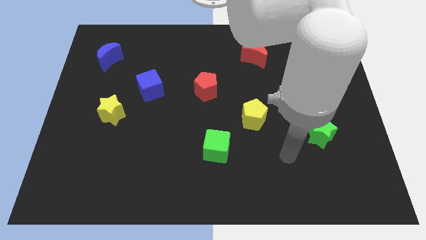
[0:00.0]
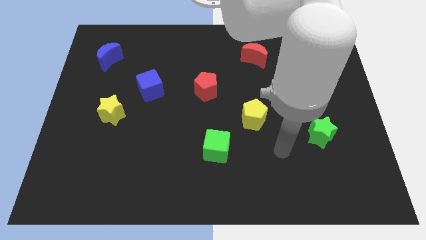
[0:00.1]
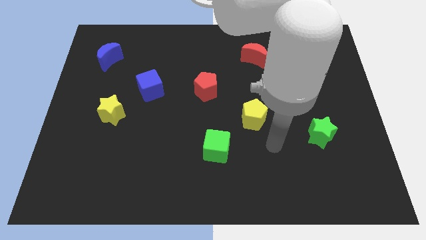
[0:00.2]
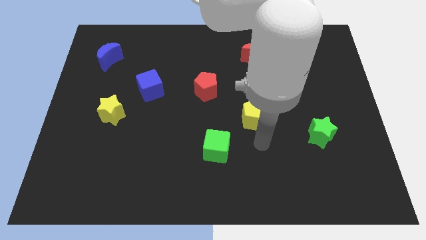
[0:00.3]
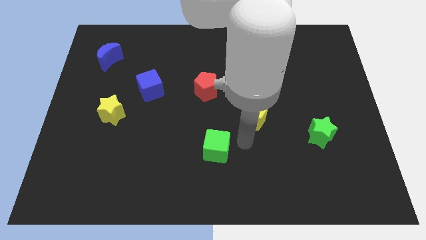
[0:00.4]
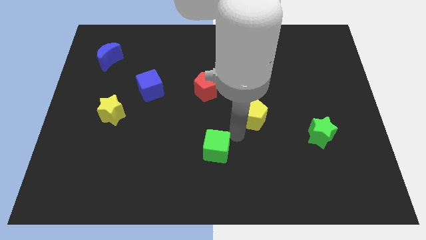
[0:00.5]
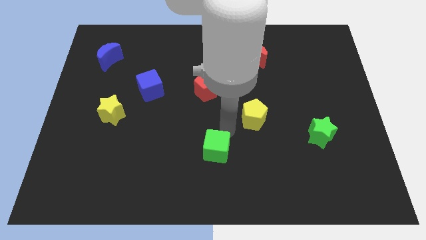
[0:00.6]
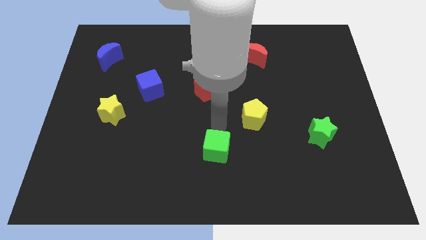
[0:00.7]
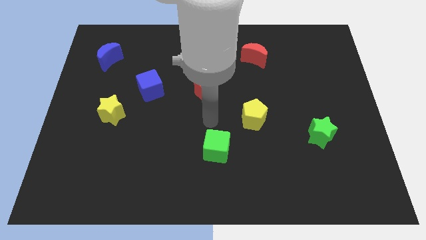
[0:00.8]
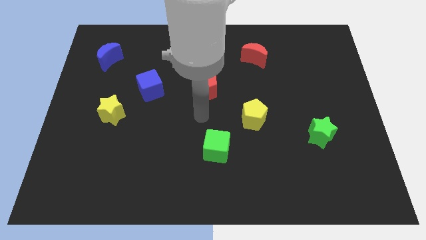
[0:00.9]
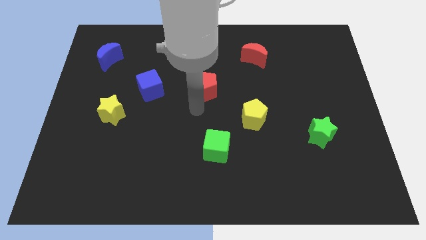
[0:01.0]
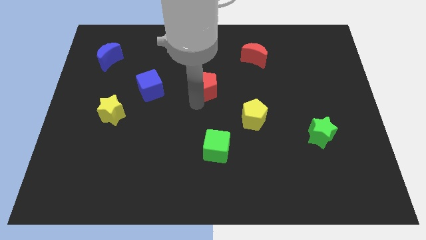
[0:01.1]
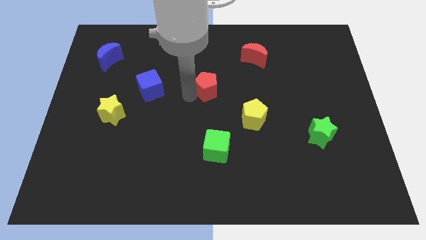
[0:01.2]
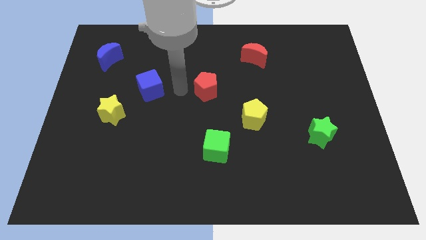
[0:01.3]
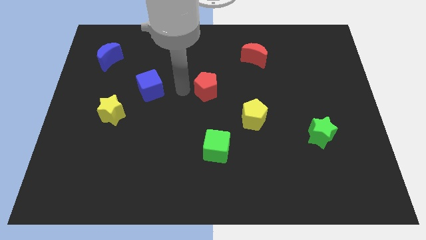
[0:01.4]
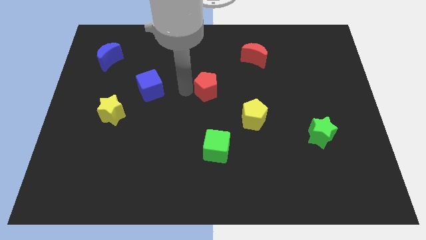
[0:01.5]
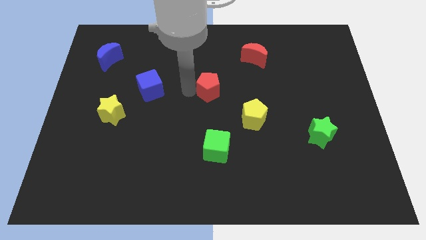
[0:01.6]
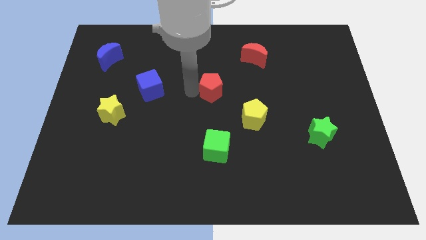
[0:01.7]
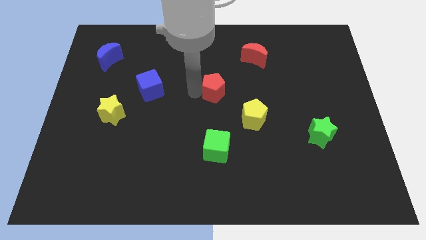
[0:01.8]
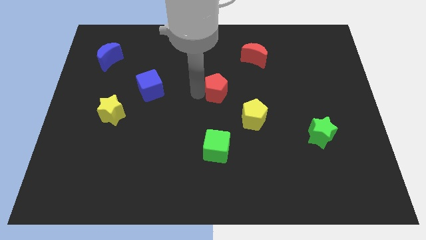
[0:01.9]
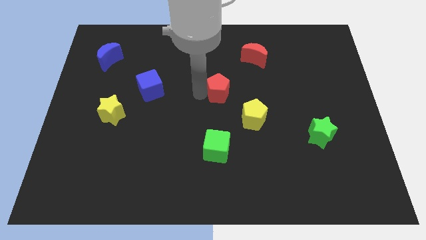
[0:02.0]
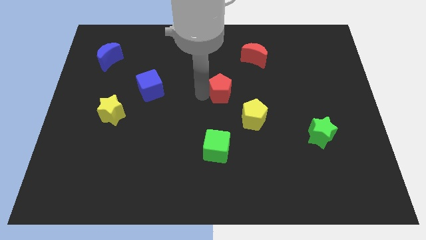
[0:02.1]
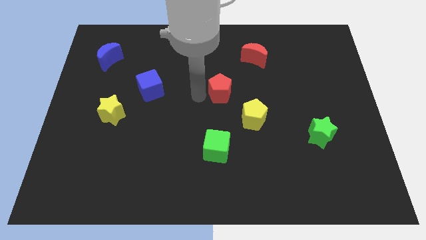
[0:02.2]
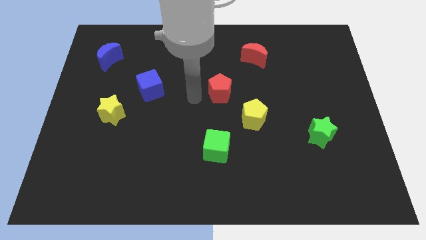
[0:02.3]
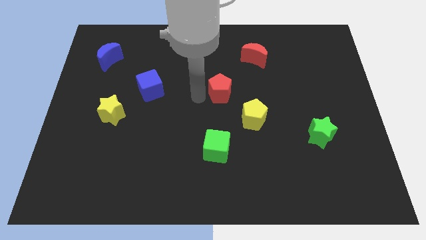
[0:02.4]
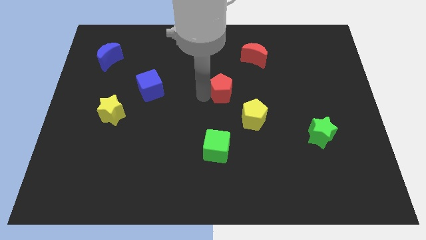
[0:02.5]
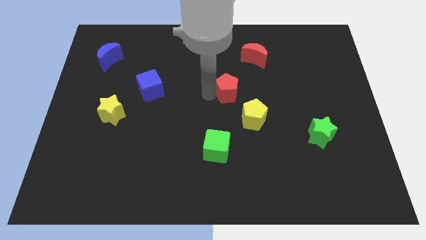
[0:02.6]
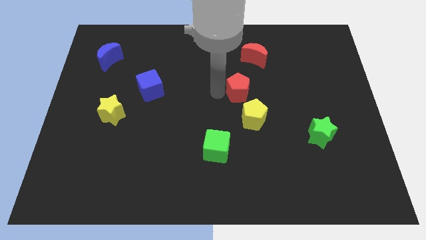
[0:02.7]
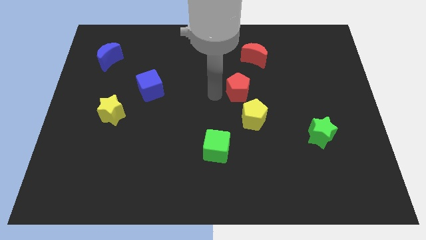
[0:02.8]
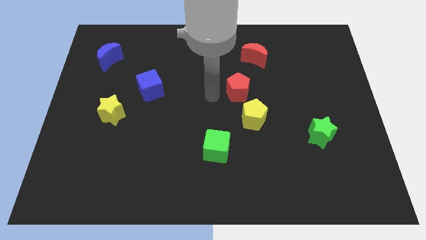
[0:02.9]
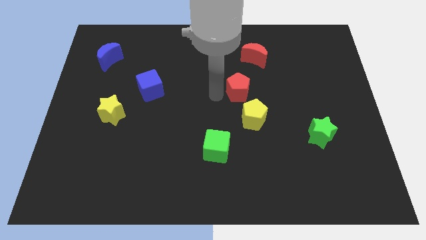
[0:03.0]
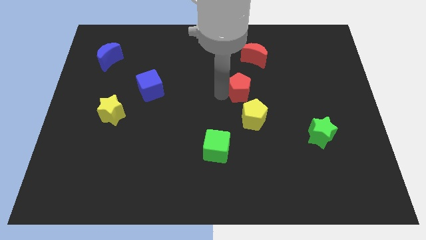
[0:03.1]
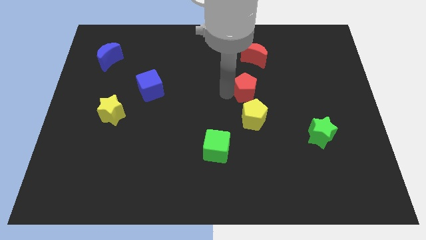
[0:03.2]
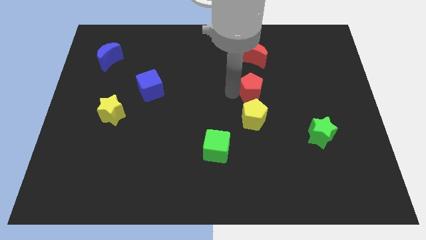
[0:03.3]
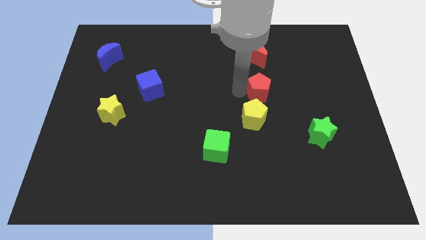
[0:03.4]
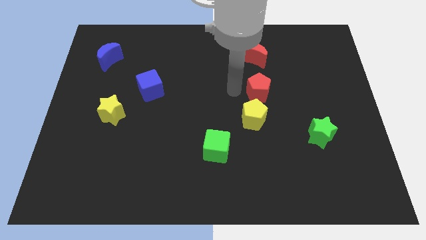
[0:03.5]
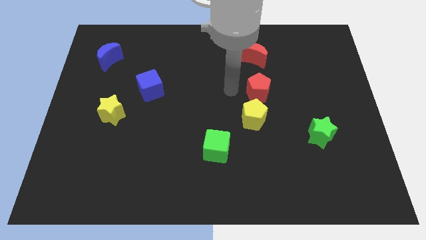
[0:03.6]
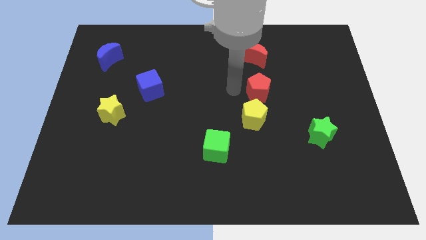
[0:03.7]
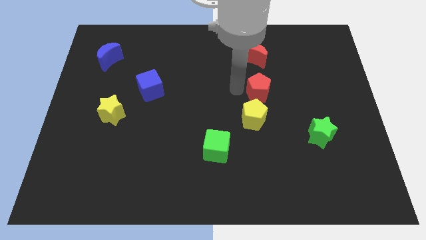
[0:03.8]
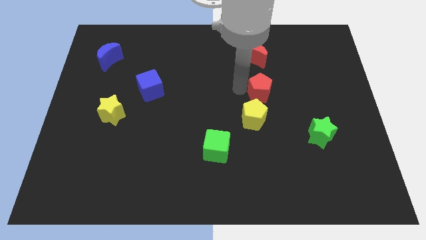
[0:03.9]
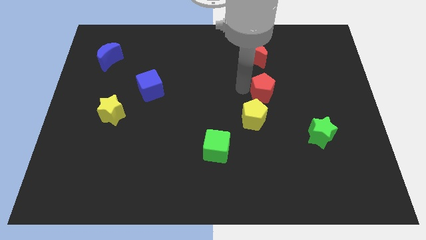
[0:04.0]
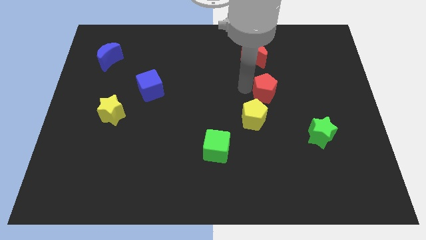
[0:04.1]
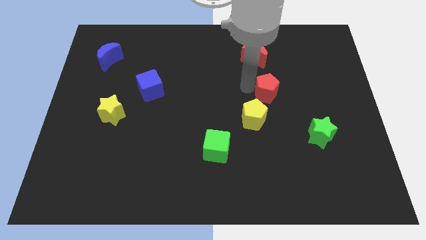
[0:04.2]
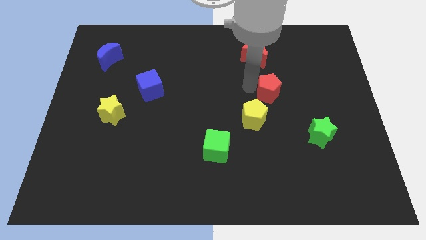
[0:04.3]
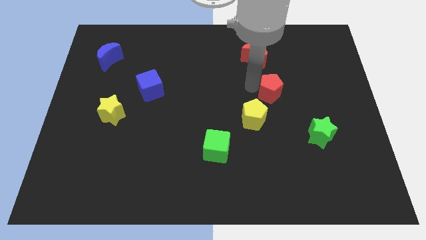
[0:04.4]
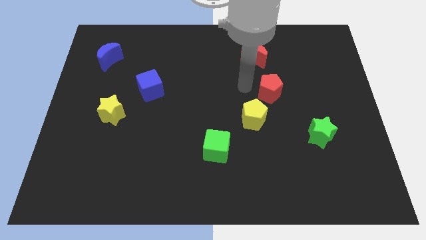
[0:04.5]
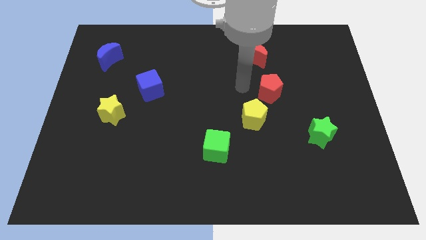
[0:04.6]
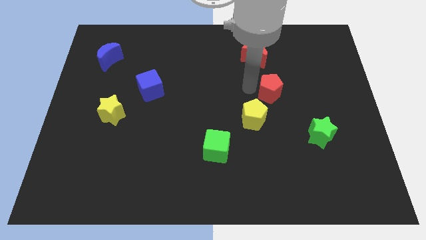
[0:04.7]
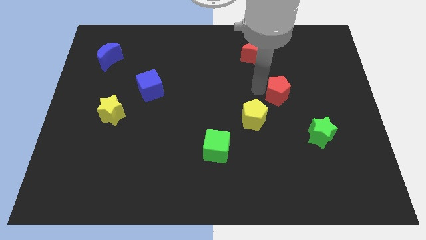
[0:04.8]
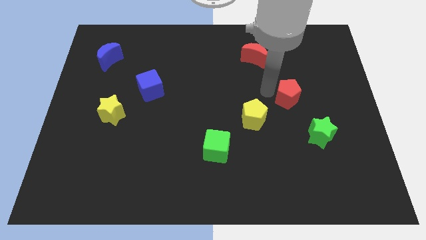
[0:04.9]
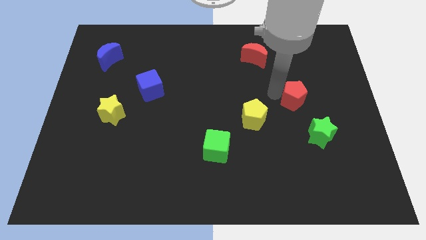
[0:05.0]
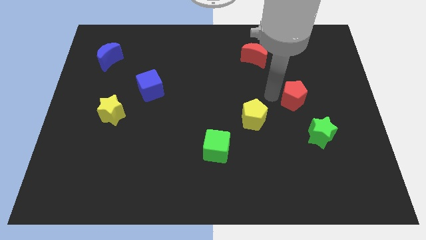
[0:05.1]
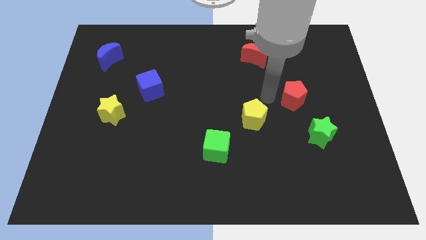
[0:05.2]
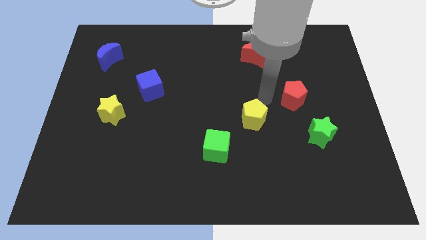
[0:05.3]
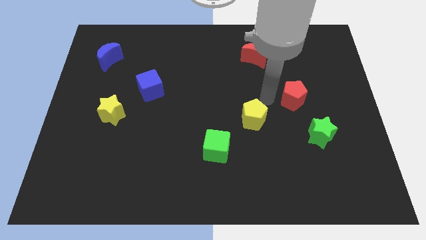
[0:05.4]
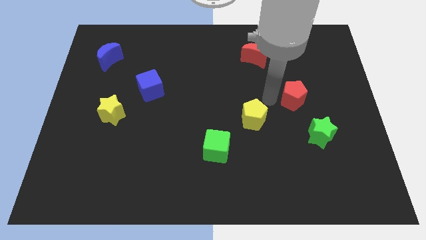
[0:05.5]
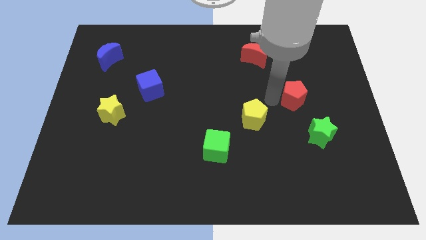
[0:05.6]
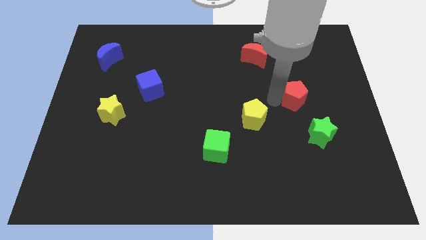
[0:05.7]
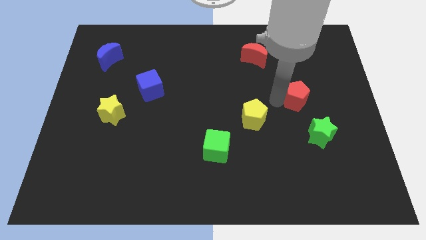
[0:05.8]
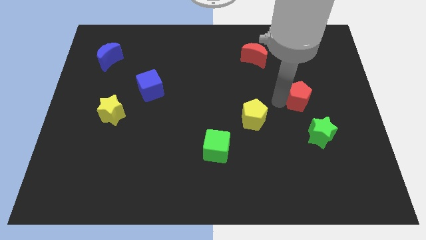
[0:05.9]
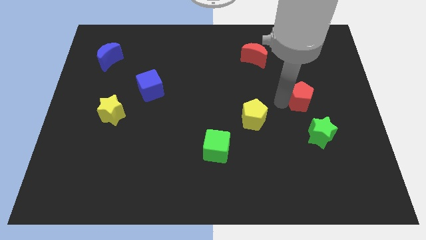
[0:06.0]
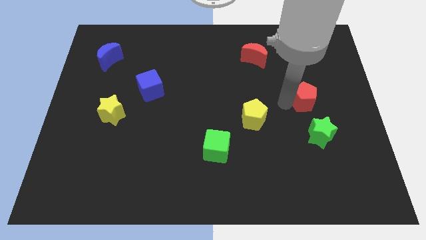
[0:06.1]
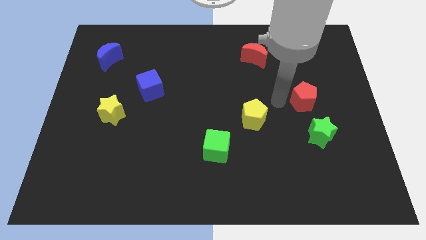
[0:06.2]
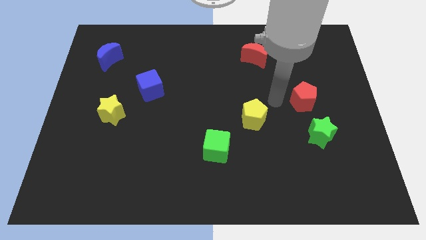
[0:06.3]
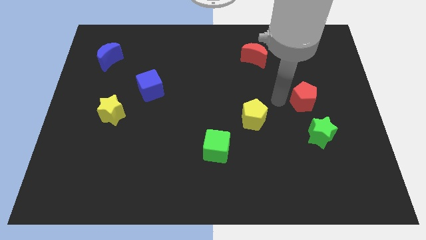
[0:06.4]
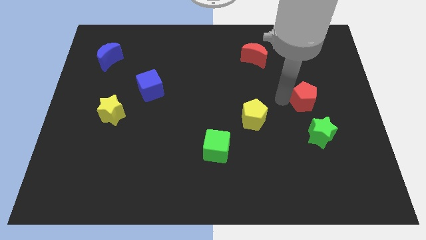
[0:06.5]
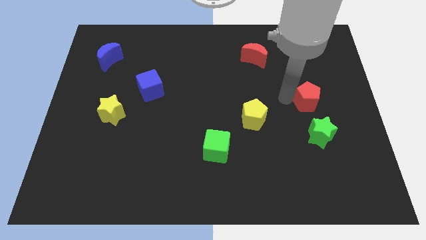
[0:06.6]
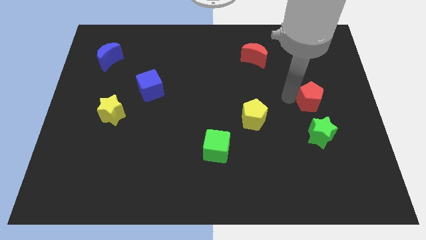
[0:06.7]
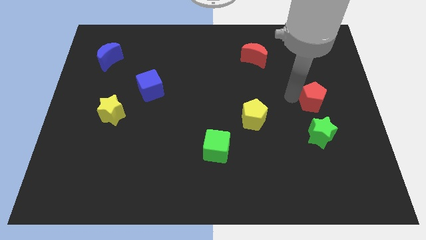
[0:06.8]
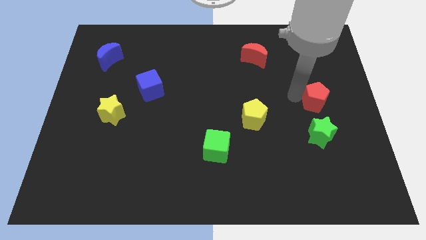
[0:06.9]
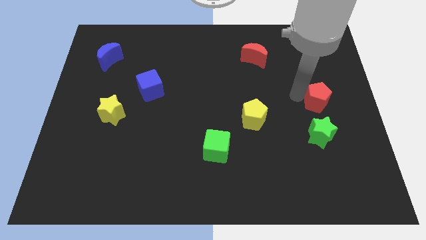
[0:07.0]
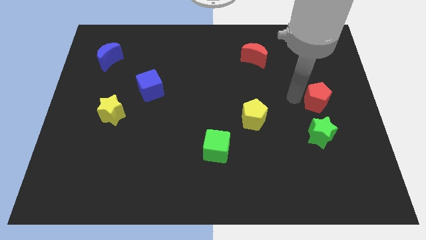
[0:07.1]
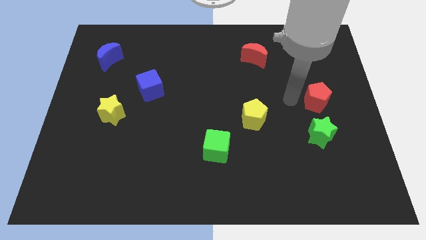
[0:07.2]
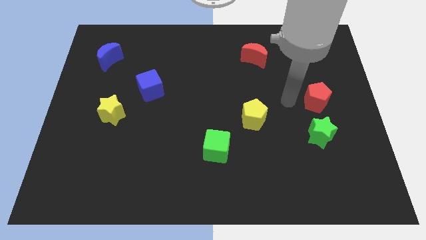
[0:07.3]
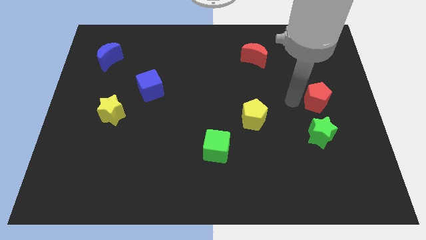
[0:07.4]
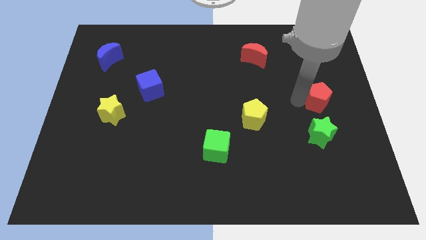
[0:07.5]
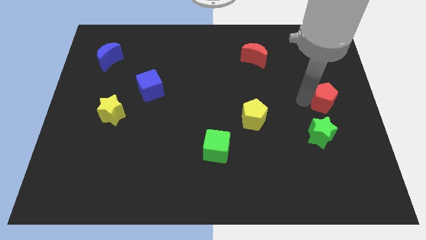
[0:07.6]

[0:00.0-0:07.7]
put the red pentagon to the center right
